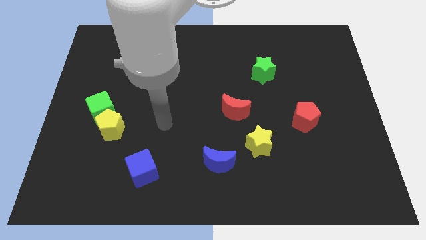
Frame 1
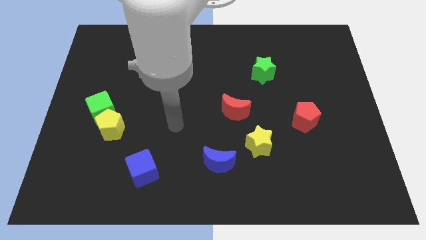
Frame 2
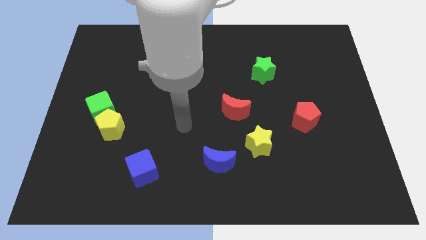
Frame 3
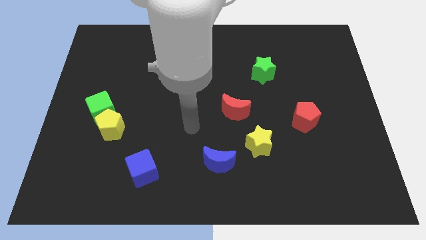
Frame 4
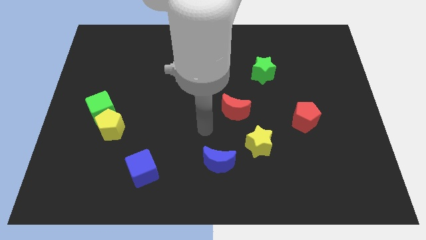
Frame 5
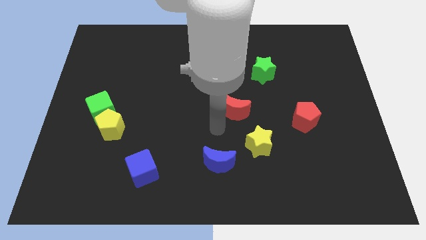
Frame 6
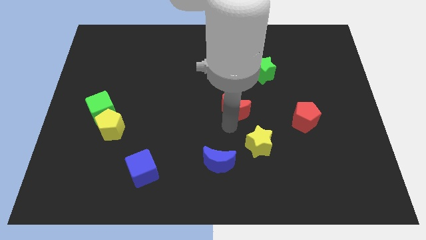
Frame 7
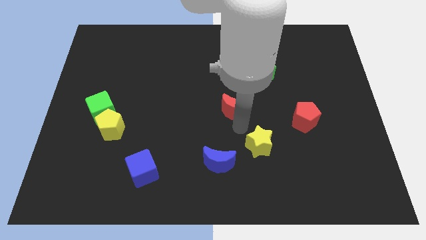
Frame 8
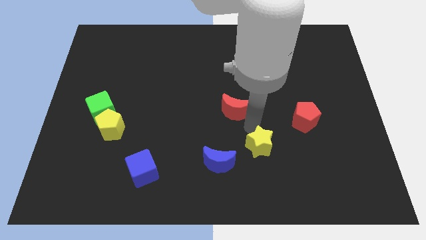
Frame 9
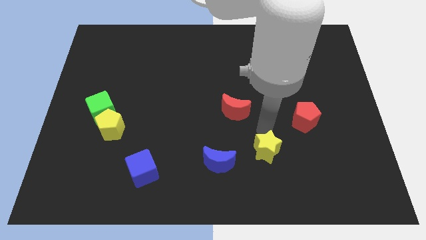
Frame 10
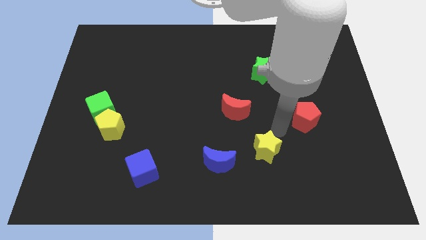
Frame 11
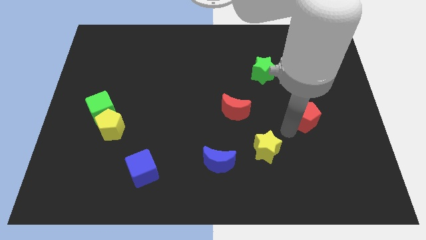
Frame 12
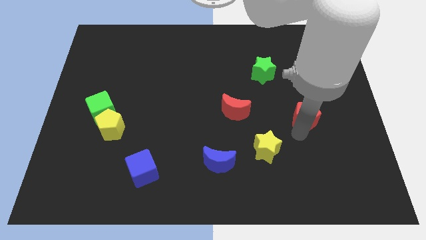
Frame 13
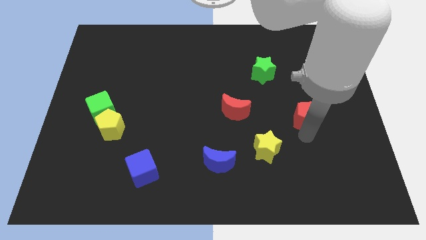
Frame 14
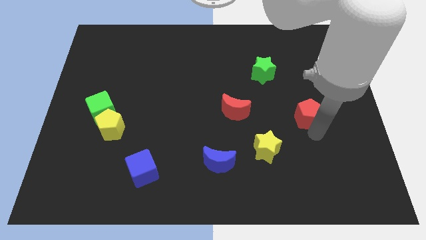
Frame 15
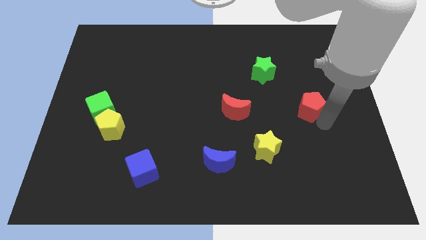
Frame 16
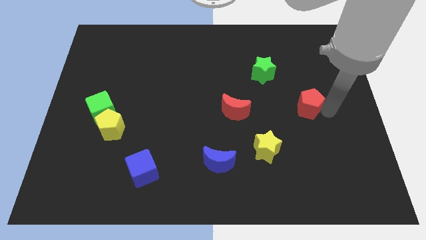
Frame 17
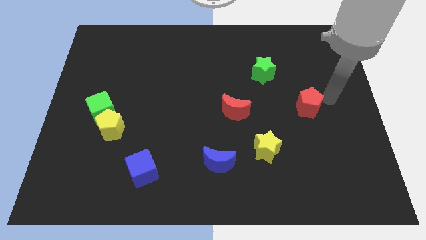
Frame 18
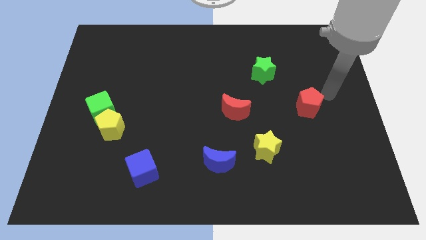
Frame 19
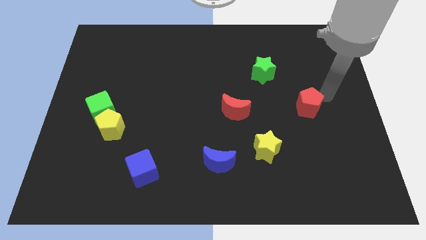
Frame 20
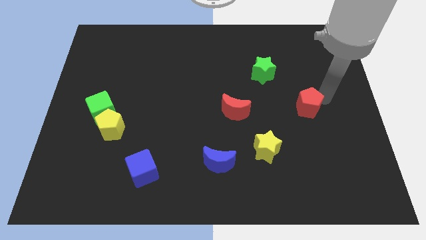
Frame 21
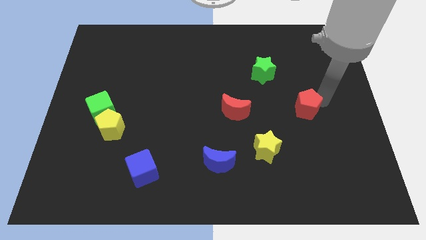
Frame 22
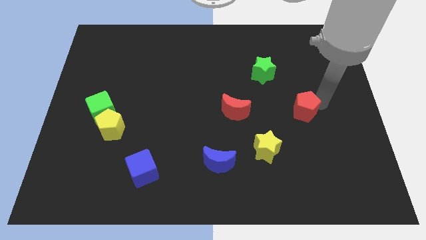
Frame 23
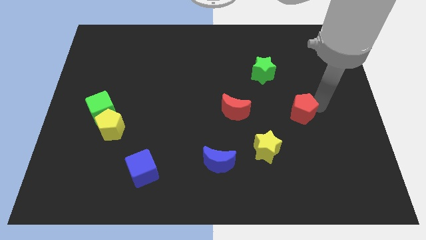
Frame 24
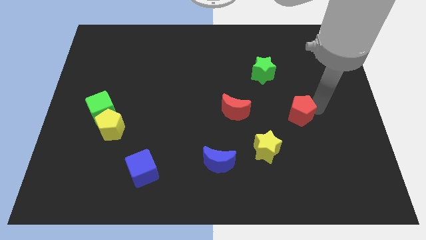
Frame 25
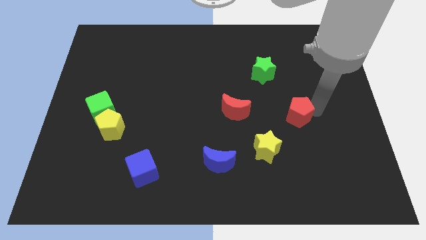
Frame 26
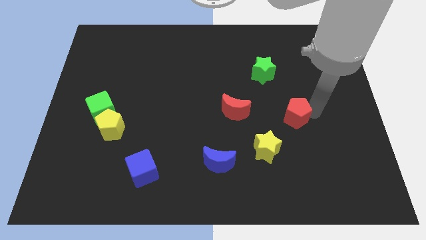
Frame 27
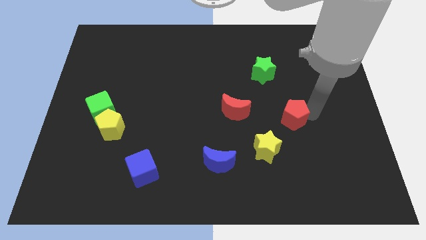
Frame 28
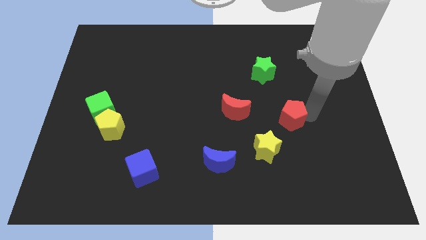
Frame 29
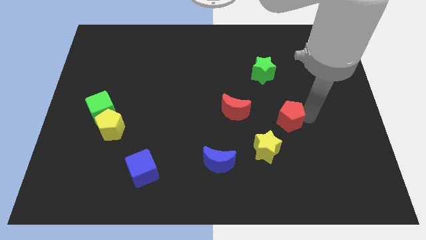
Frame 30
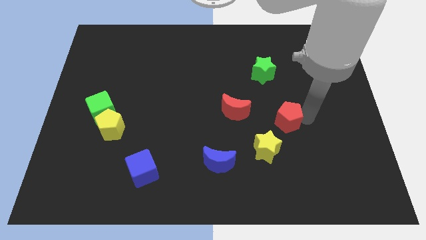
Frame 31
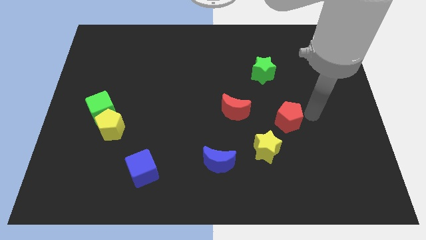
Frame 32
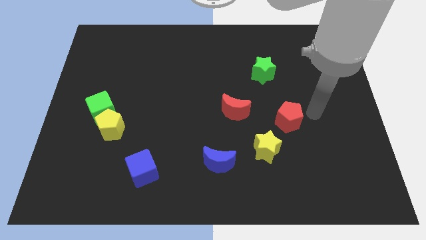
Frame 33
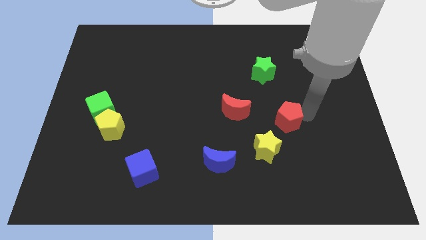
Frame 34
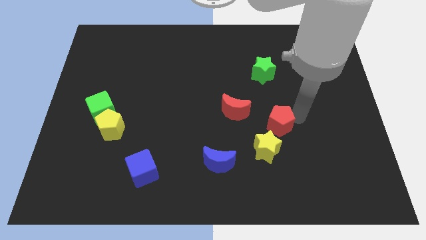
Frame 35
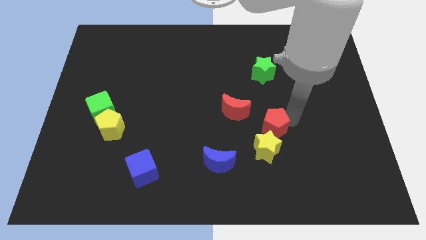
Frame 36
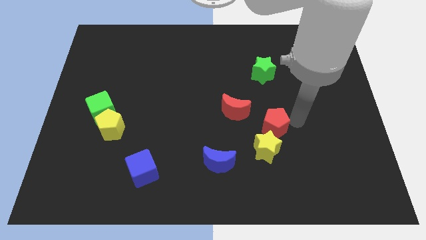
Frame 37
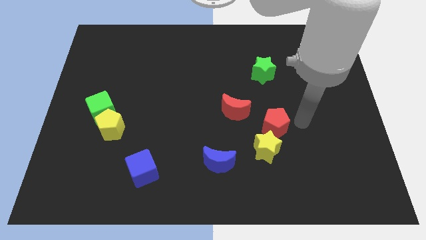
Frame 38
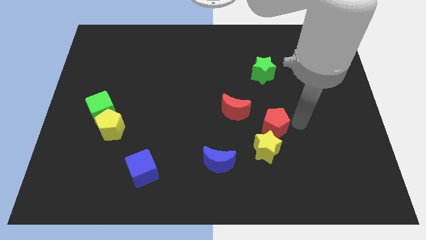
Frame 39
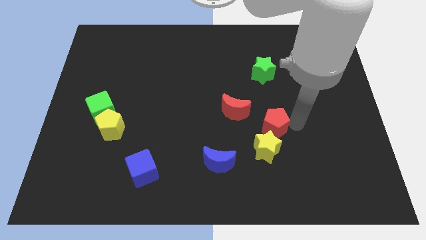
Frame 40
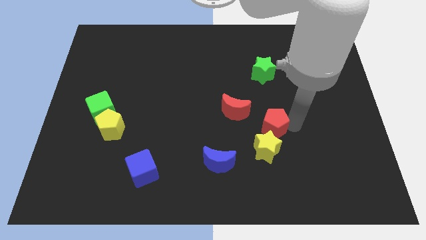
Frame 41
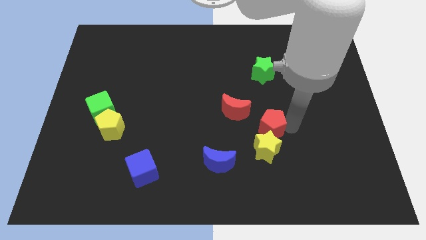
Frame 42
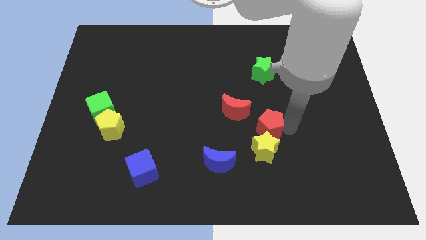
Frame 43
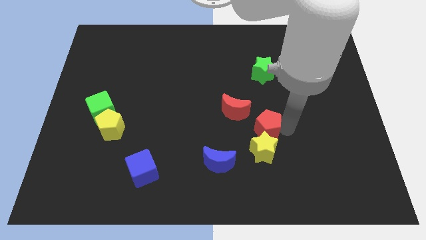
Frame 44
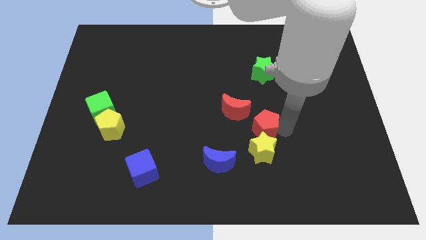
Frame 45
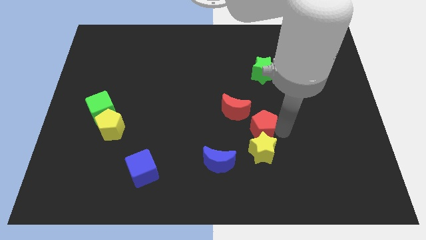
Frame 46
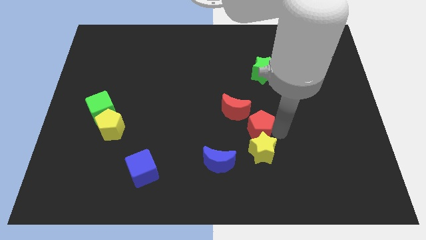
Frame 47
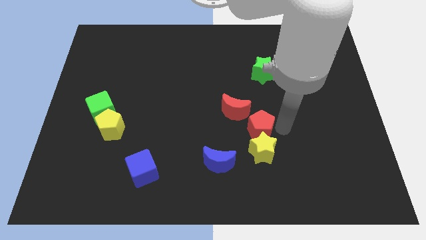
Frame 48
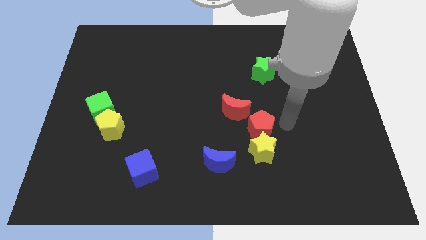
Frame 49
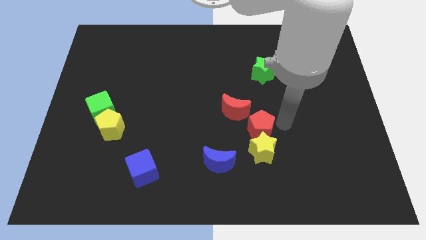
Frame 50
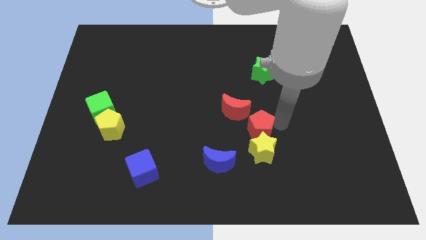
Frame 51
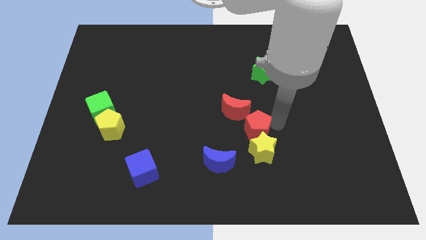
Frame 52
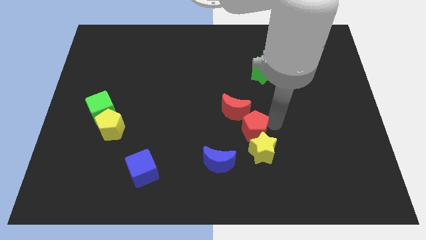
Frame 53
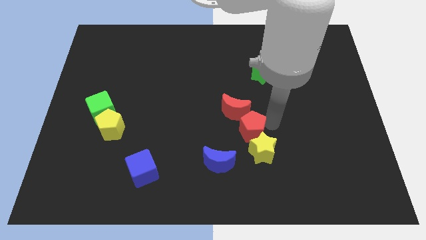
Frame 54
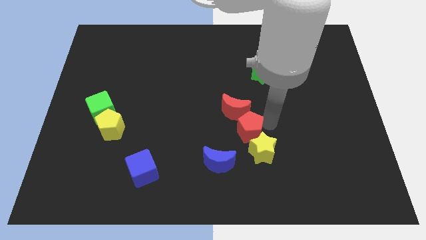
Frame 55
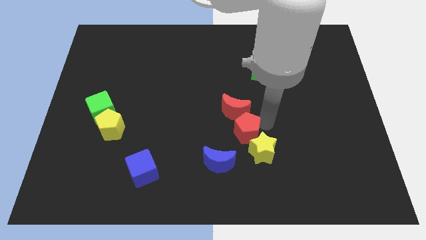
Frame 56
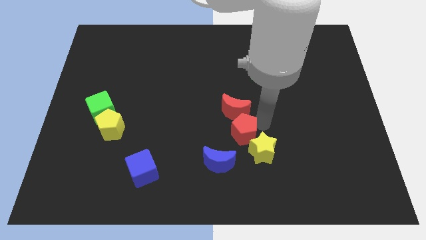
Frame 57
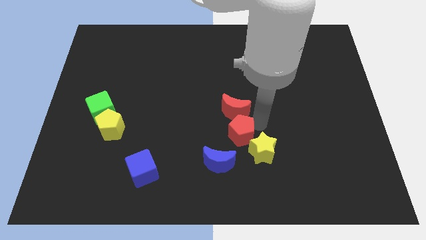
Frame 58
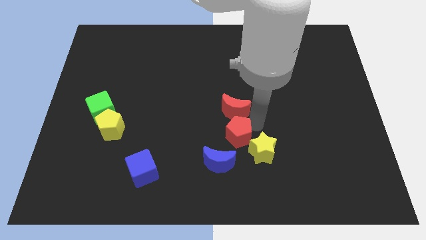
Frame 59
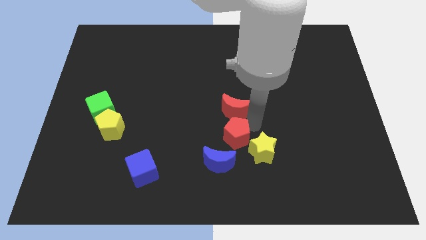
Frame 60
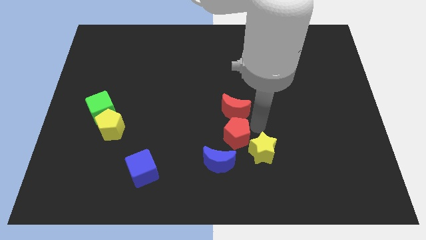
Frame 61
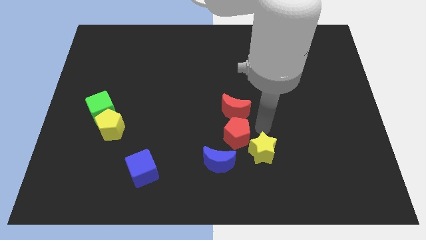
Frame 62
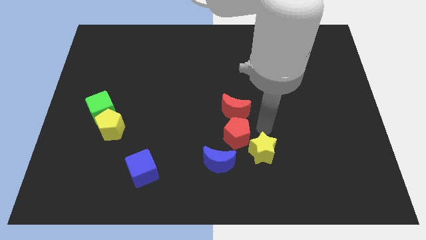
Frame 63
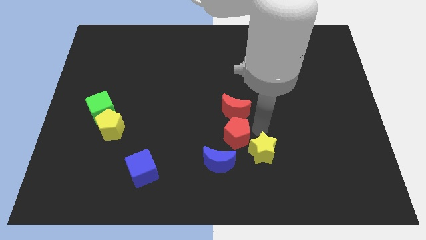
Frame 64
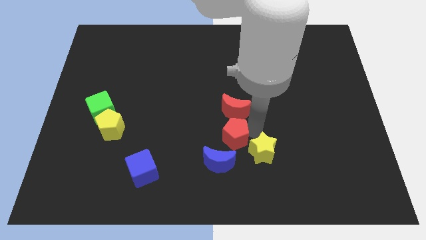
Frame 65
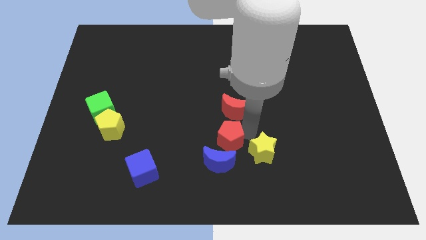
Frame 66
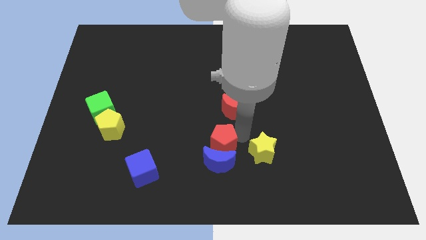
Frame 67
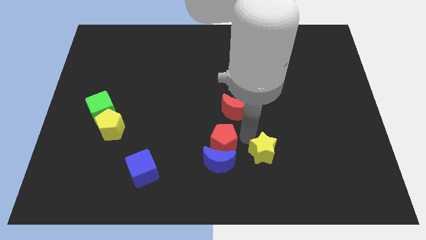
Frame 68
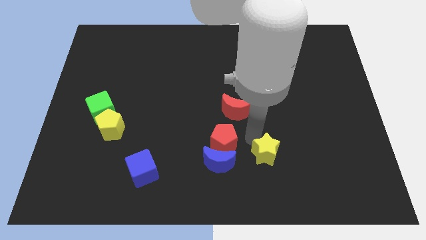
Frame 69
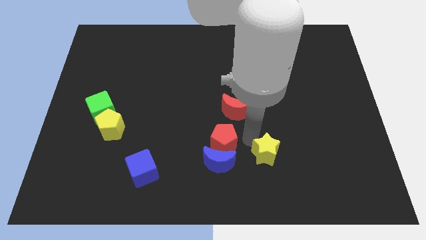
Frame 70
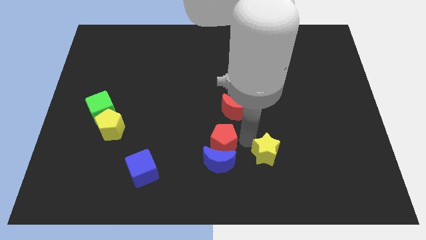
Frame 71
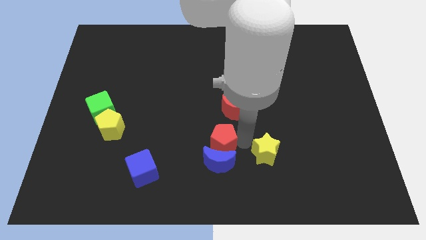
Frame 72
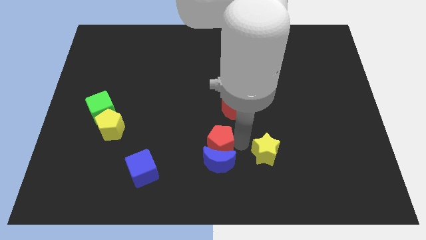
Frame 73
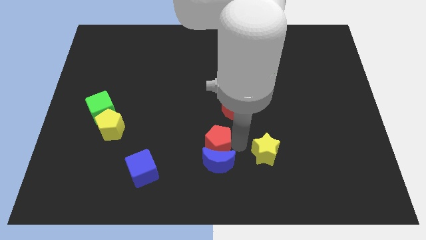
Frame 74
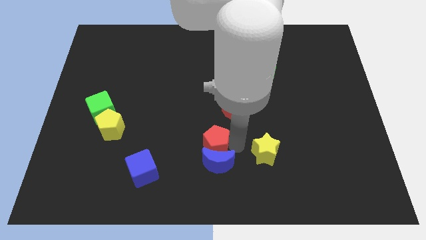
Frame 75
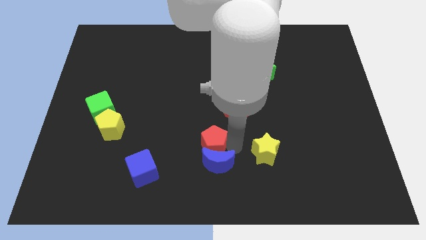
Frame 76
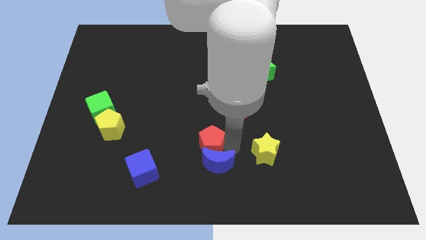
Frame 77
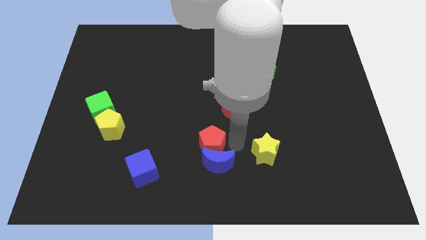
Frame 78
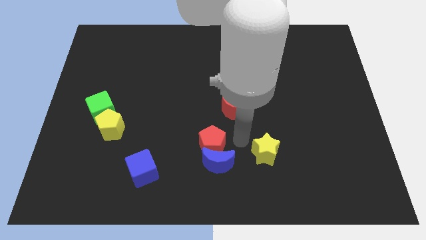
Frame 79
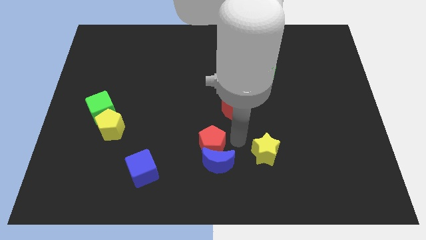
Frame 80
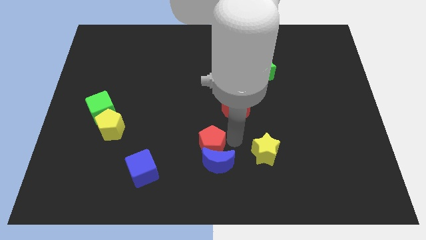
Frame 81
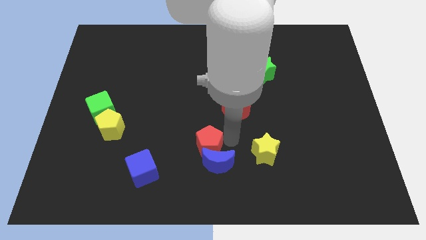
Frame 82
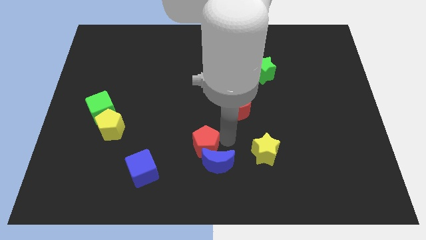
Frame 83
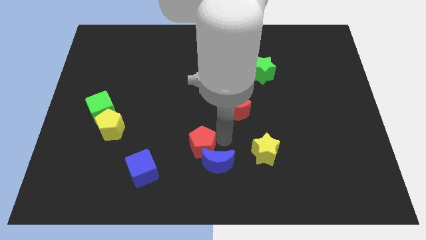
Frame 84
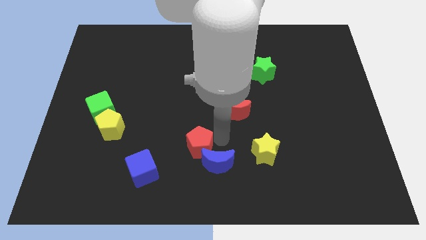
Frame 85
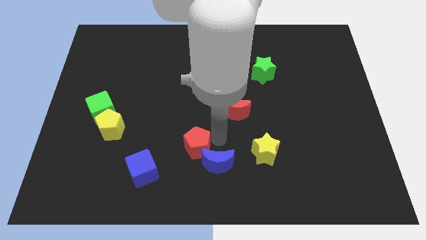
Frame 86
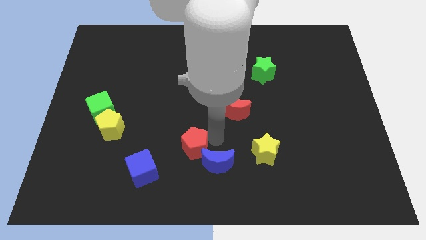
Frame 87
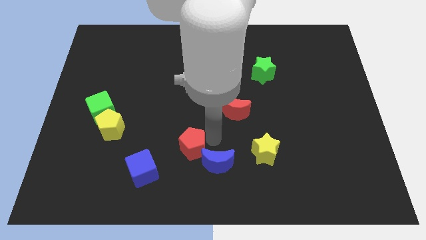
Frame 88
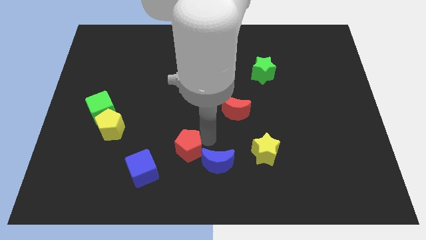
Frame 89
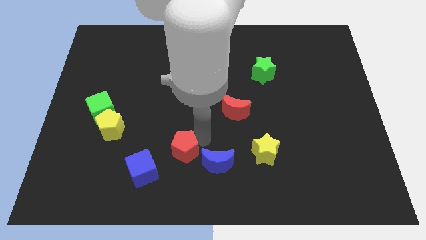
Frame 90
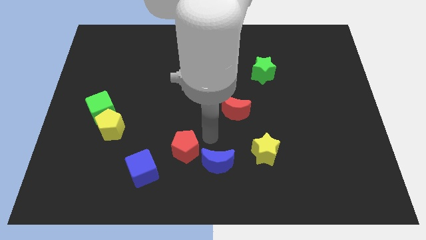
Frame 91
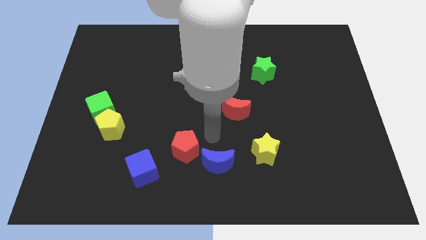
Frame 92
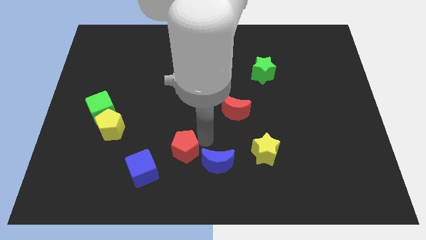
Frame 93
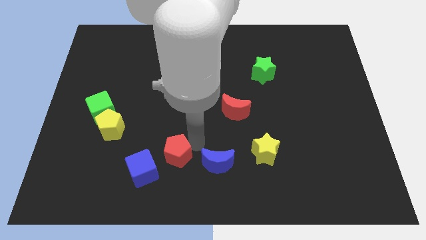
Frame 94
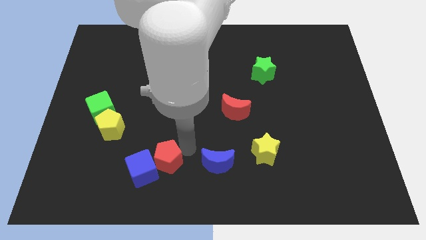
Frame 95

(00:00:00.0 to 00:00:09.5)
push the red pentagon to the blue cube
